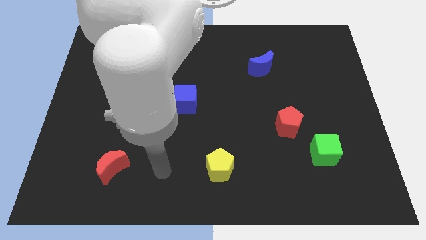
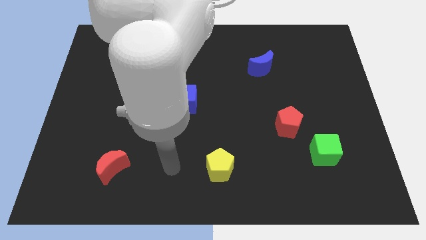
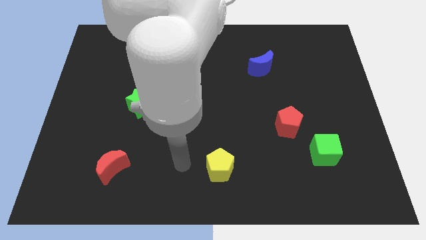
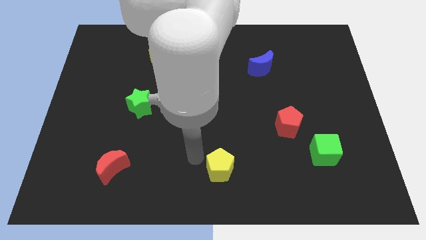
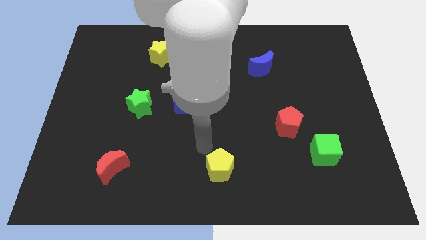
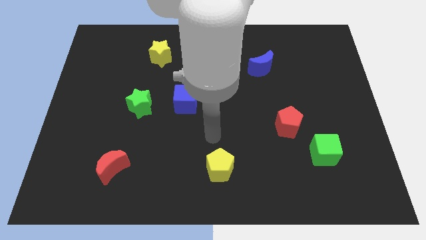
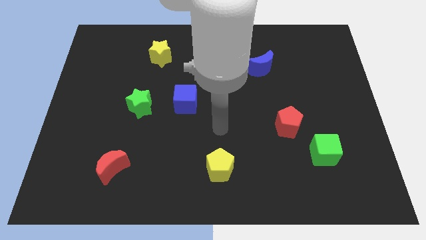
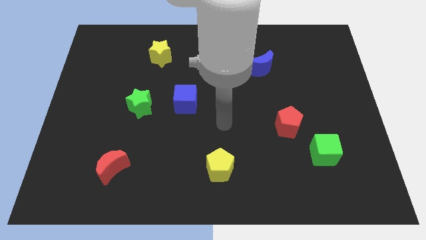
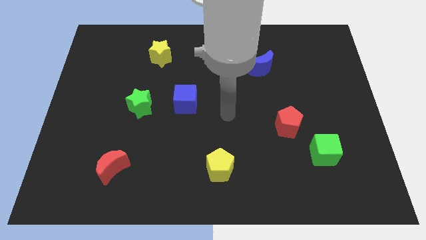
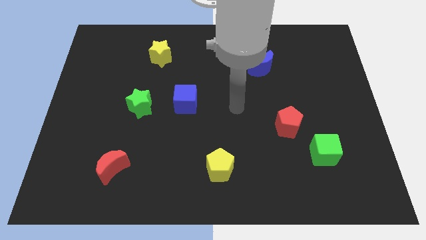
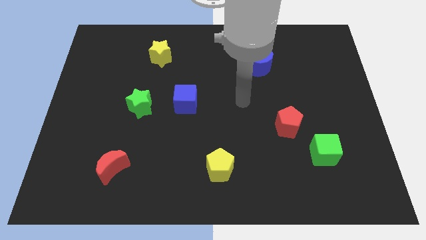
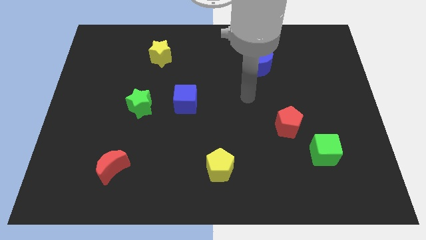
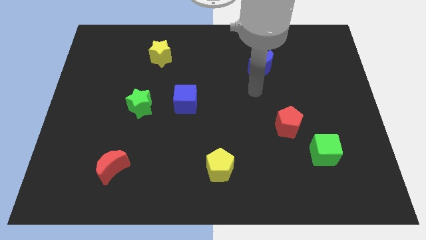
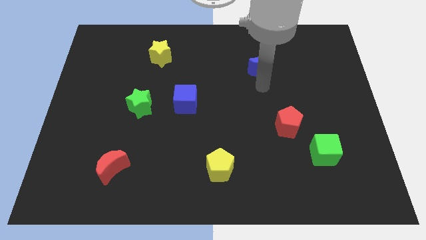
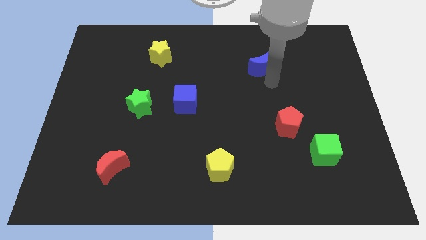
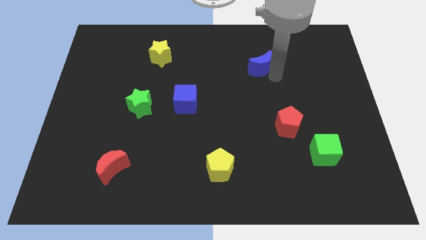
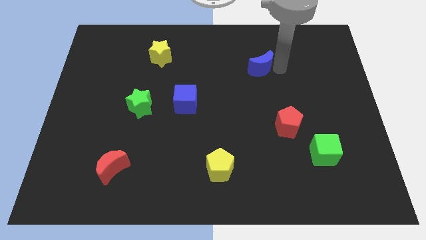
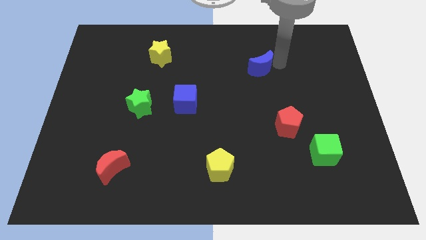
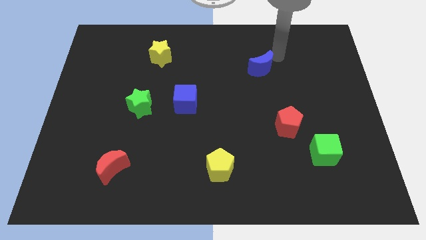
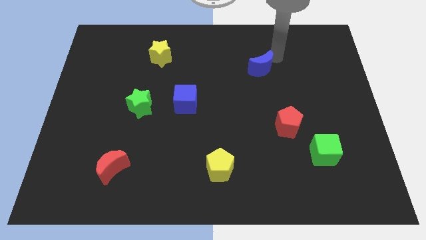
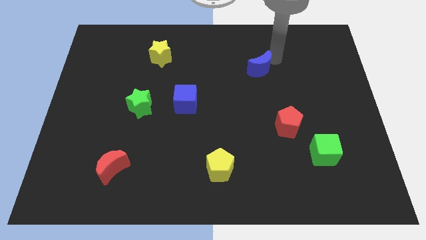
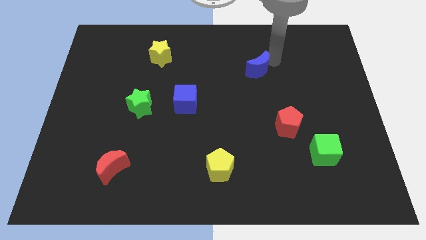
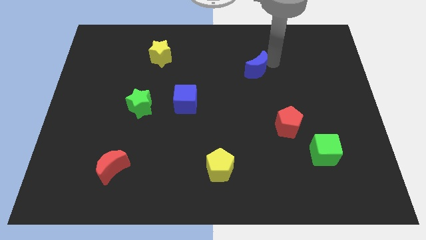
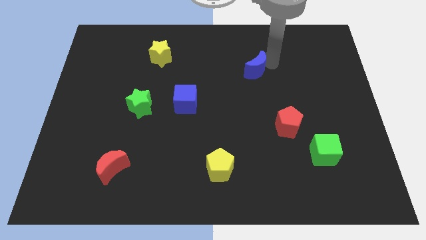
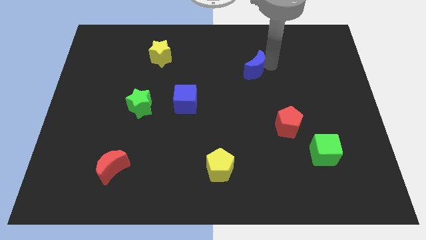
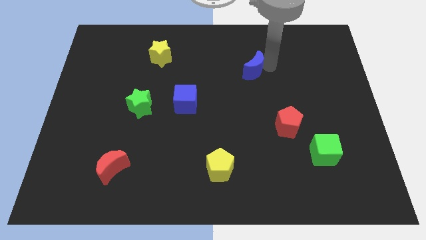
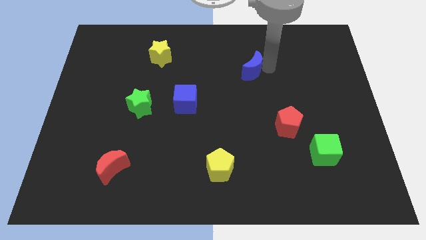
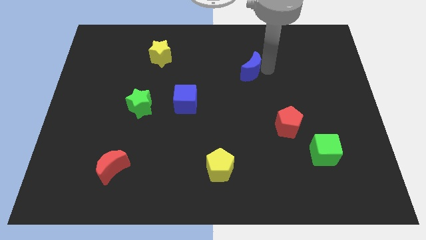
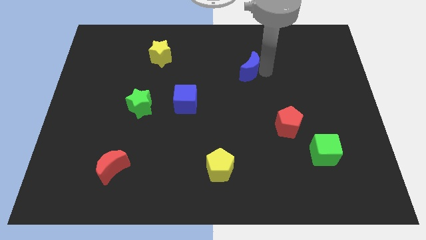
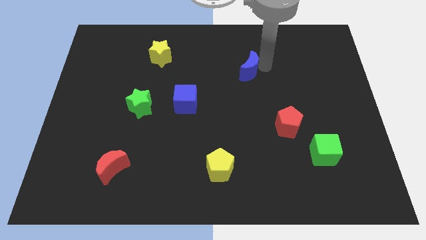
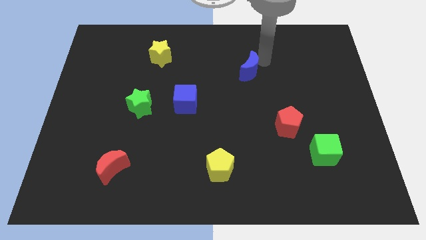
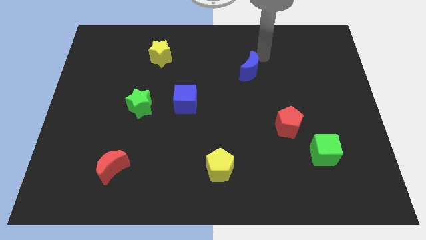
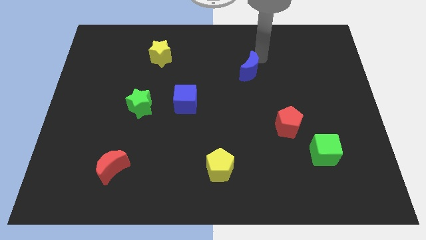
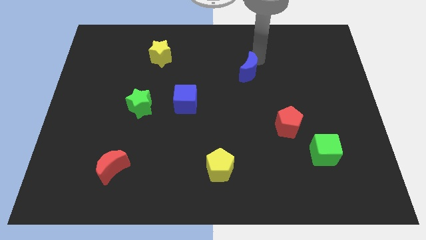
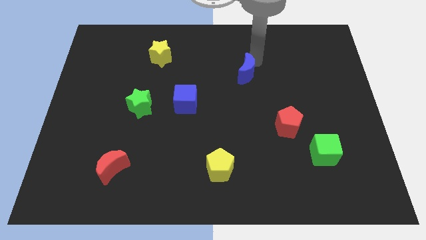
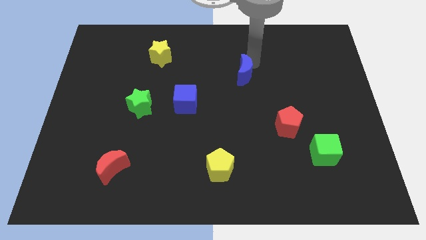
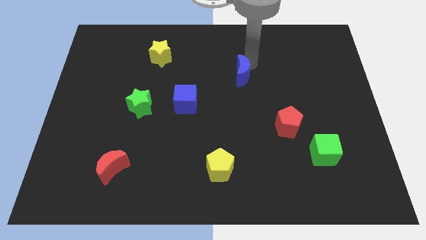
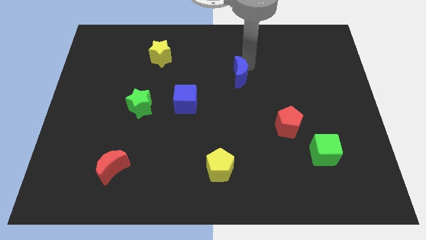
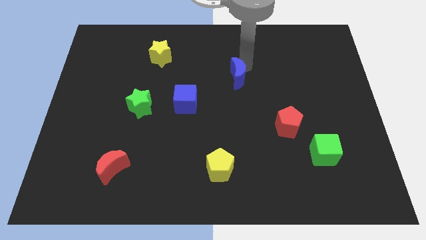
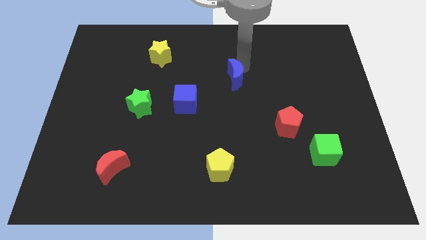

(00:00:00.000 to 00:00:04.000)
push the blue moon diagonally downwards and left a little

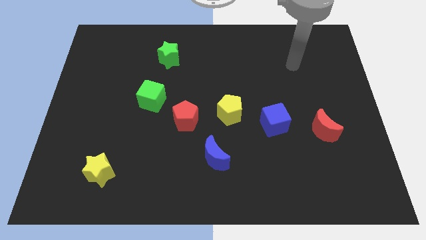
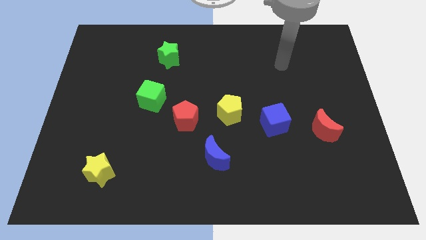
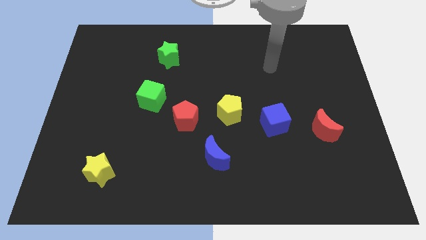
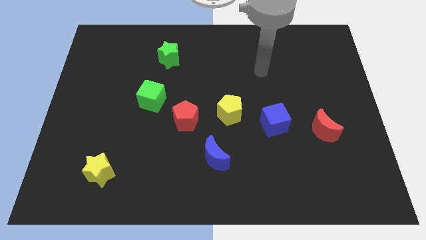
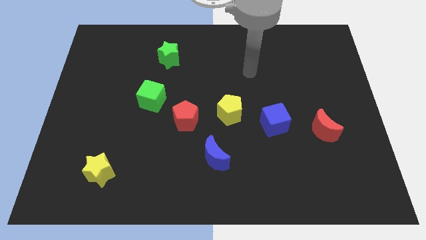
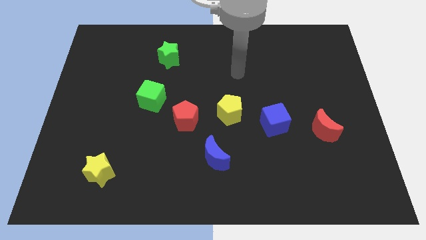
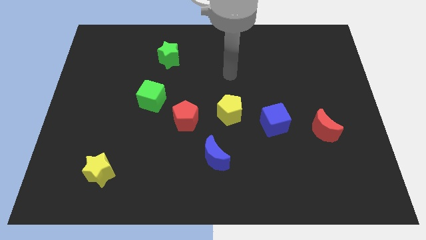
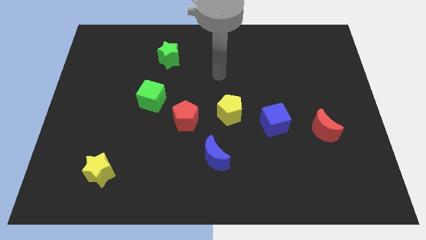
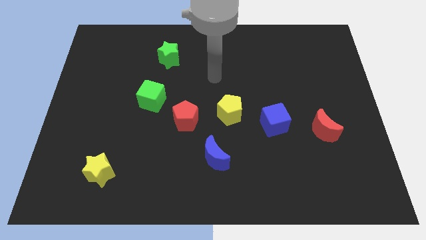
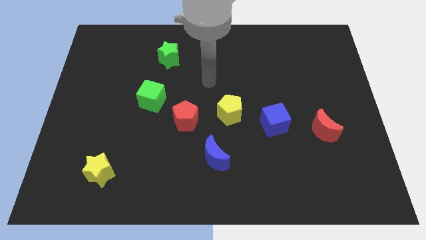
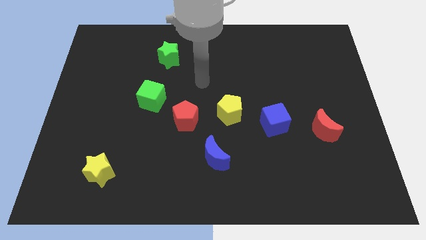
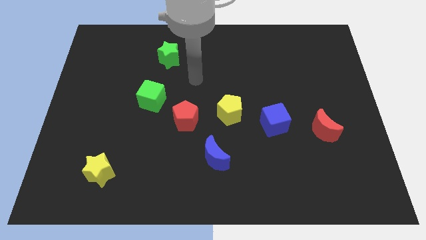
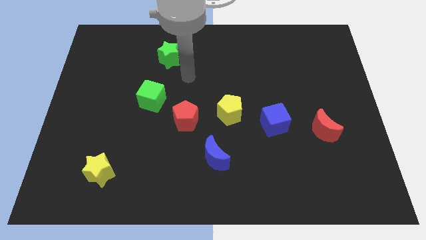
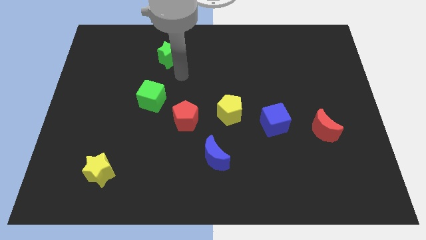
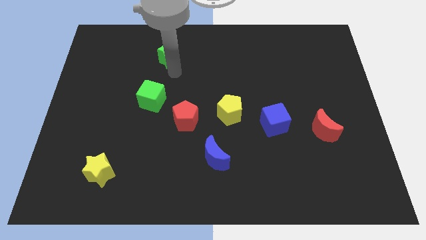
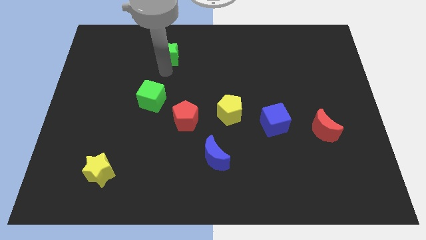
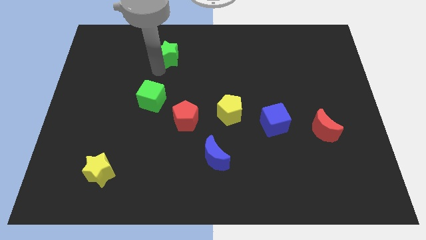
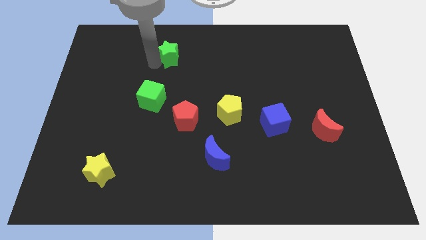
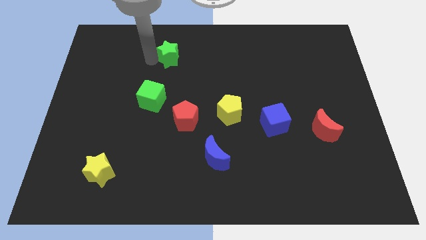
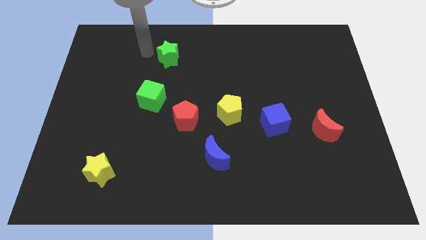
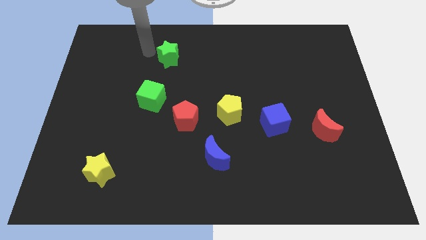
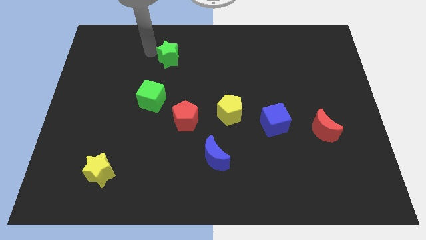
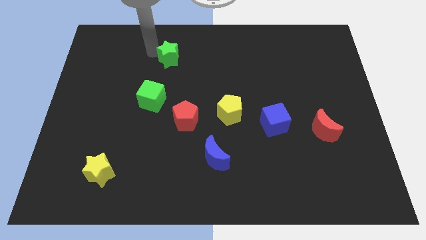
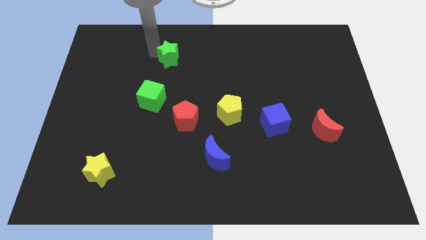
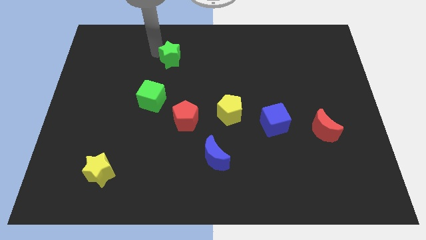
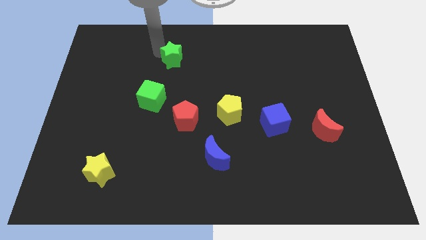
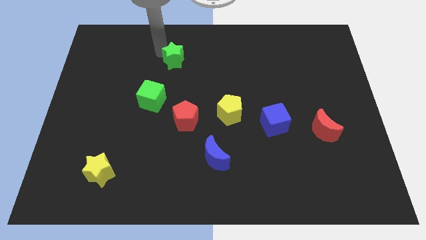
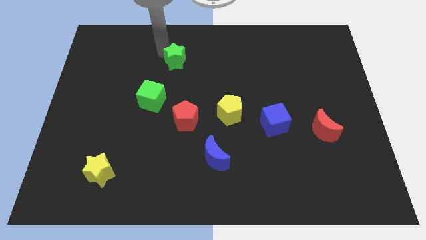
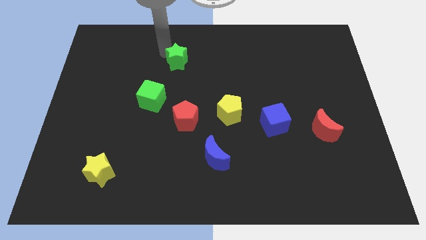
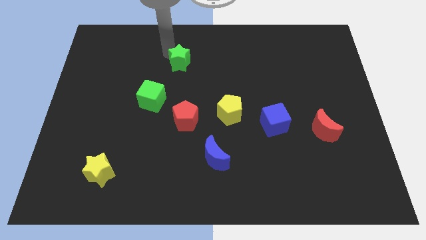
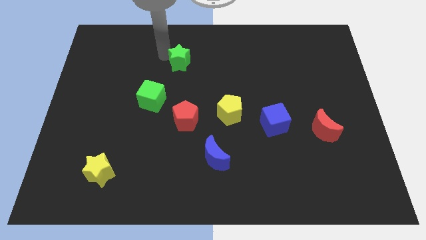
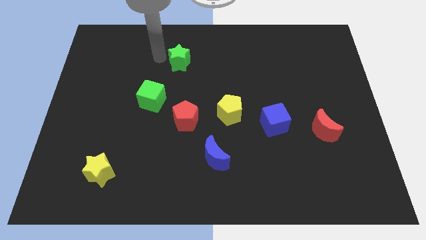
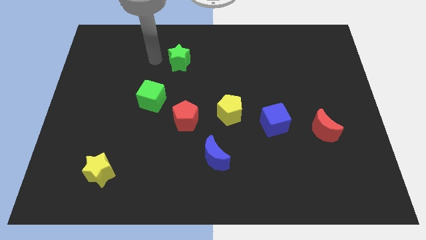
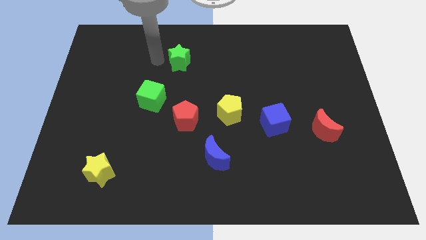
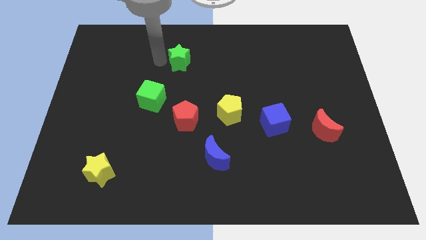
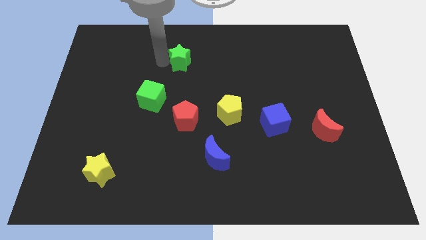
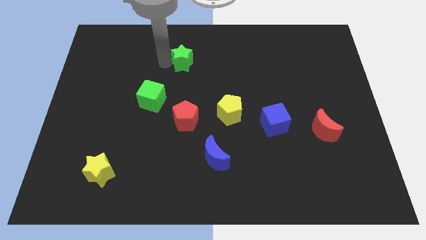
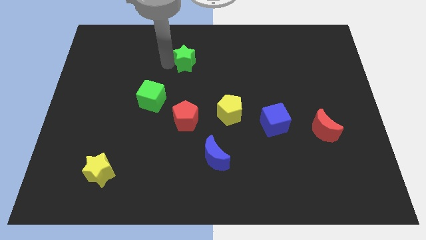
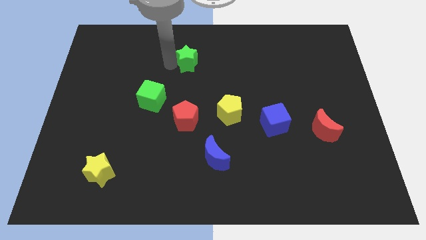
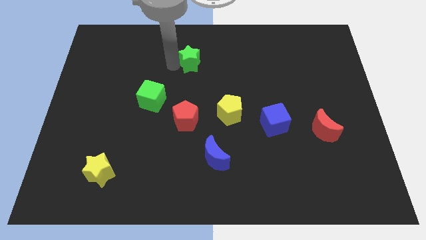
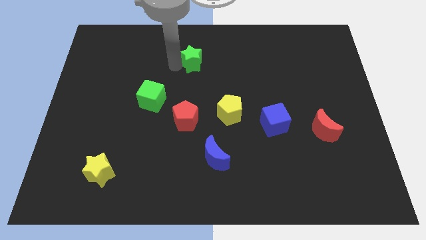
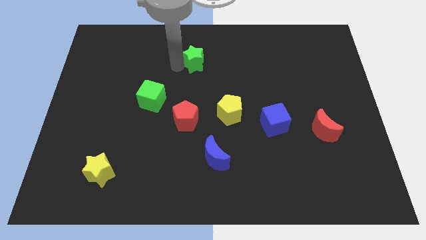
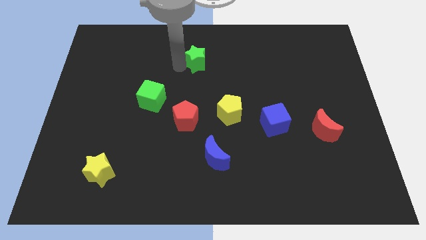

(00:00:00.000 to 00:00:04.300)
slightly slide the green star to the right
